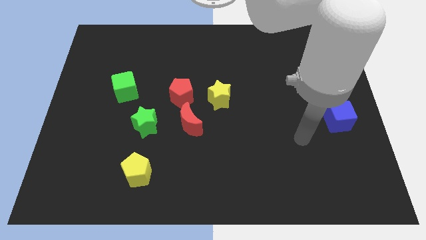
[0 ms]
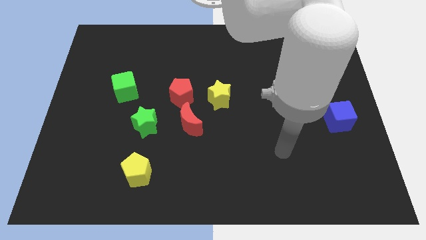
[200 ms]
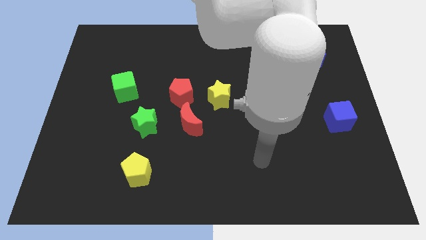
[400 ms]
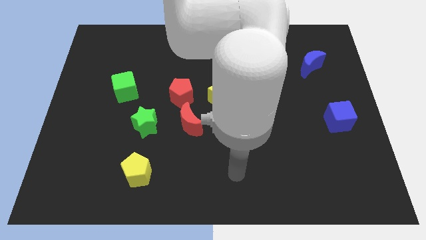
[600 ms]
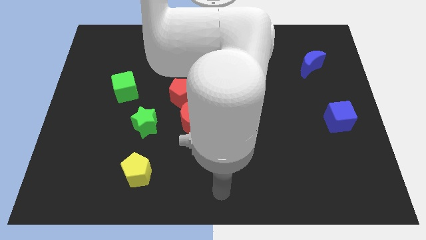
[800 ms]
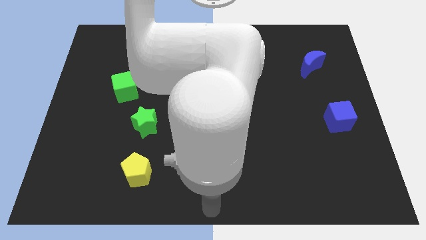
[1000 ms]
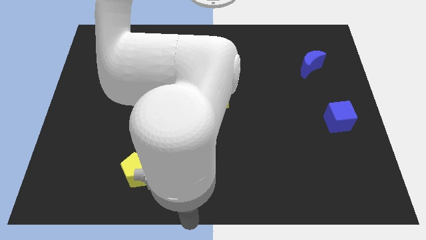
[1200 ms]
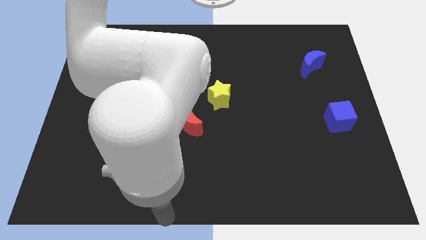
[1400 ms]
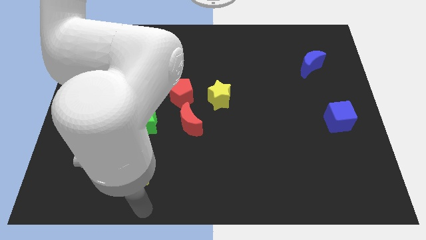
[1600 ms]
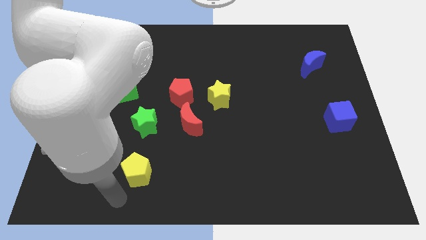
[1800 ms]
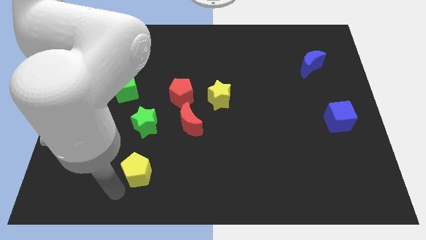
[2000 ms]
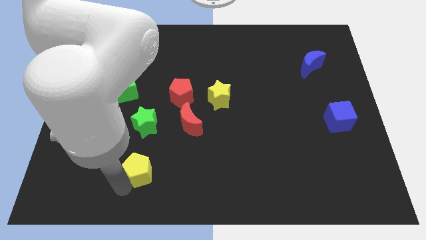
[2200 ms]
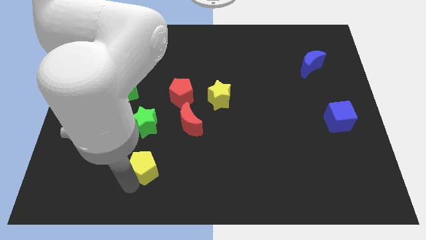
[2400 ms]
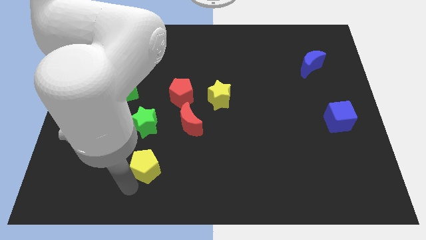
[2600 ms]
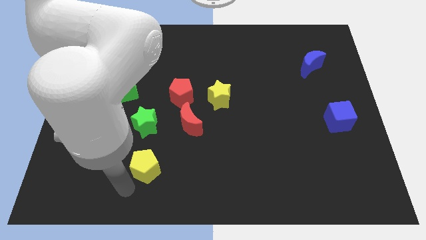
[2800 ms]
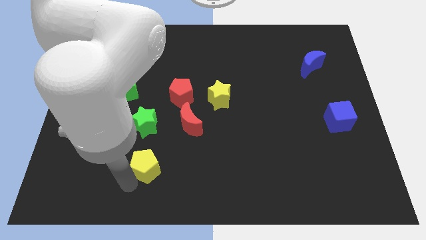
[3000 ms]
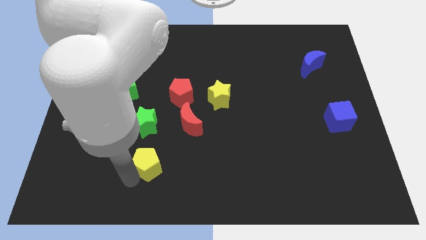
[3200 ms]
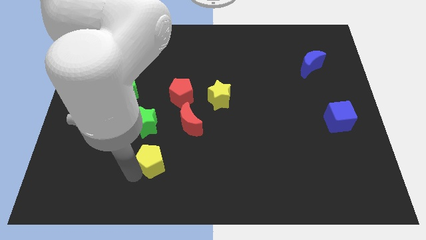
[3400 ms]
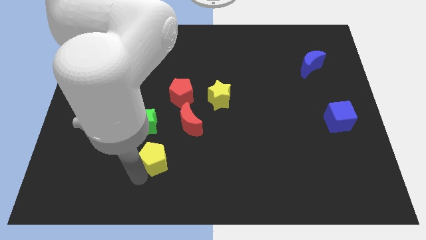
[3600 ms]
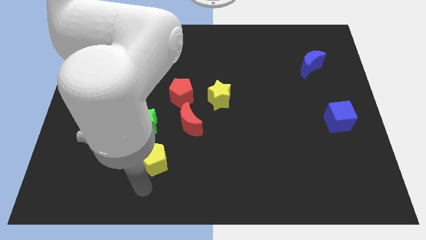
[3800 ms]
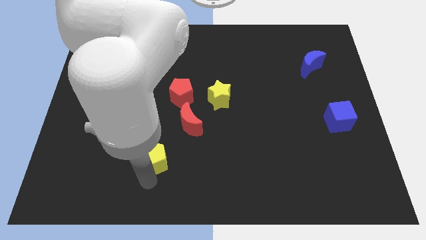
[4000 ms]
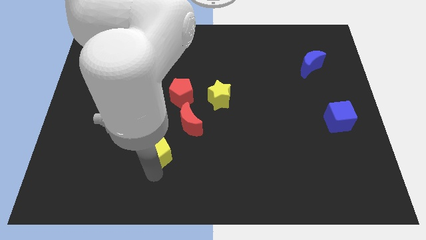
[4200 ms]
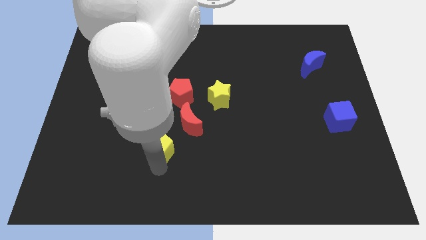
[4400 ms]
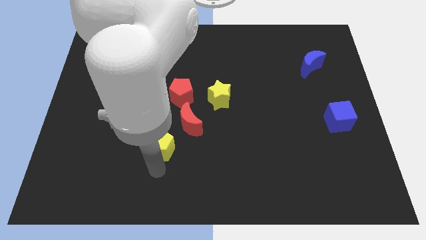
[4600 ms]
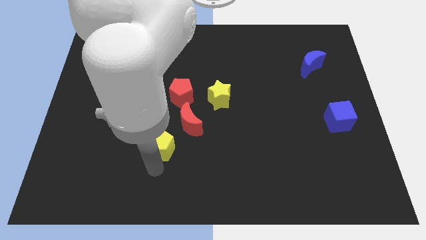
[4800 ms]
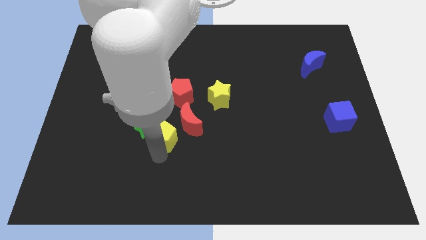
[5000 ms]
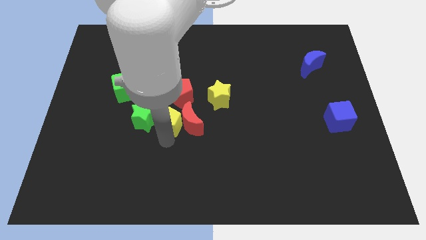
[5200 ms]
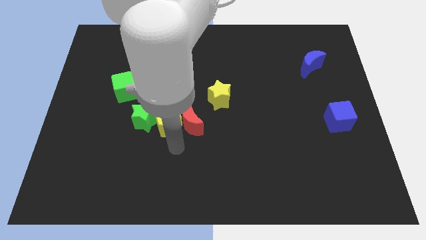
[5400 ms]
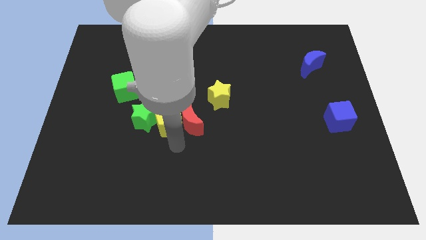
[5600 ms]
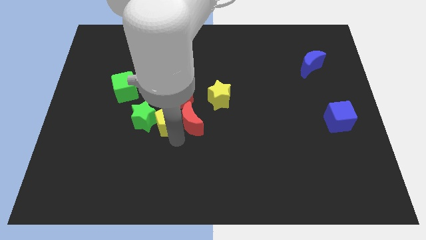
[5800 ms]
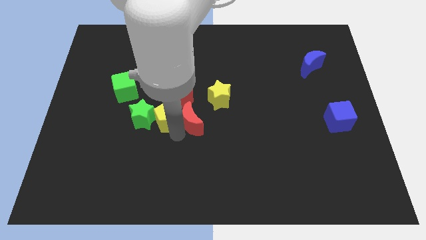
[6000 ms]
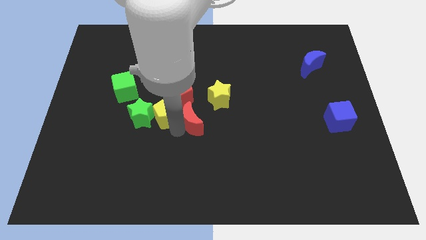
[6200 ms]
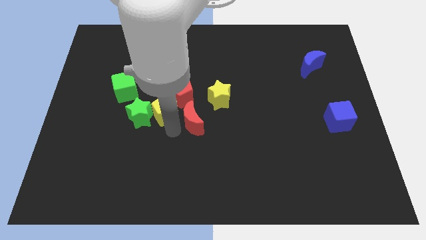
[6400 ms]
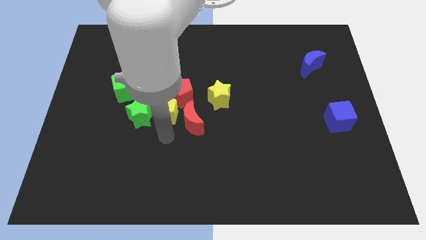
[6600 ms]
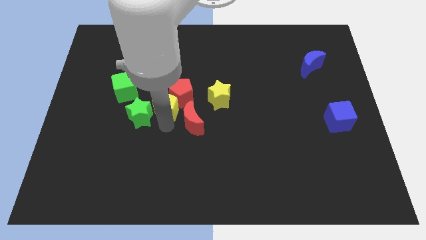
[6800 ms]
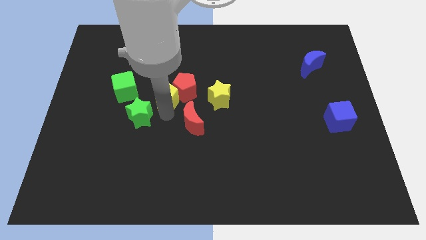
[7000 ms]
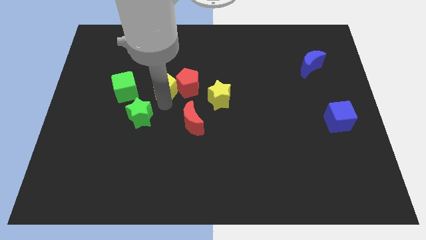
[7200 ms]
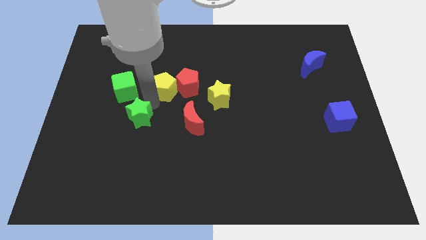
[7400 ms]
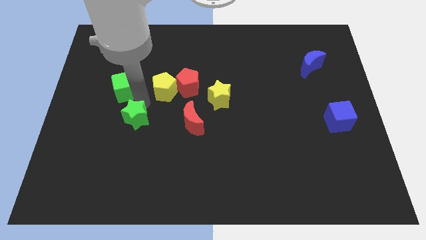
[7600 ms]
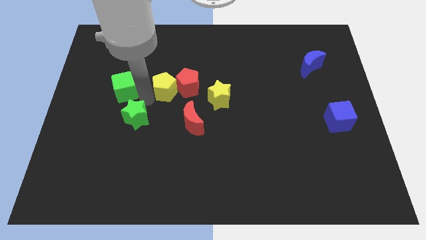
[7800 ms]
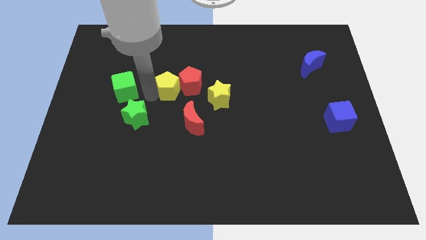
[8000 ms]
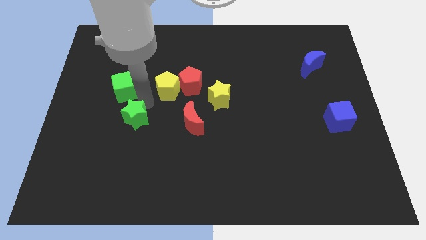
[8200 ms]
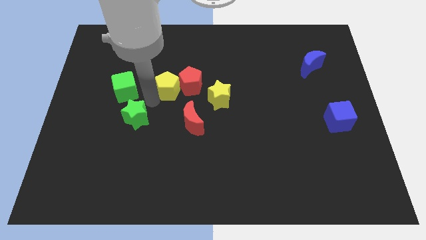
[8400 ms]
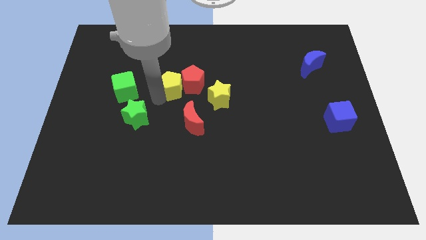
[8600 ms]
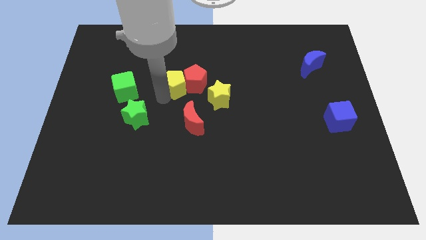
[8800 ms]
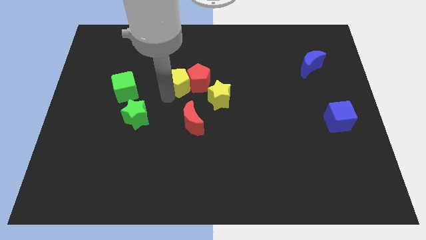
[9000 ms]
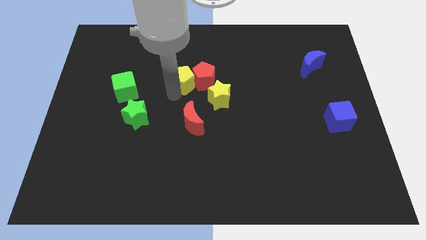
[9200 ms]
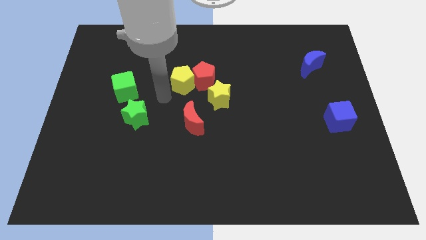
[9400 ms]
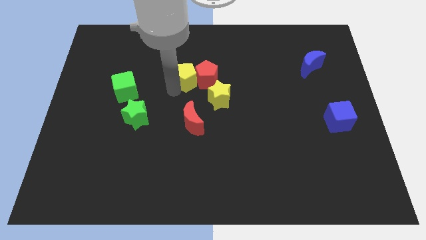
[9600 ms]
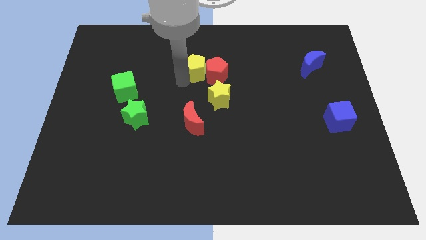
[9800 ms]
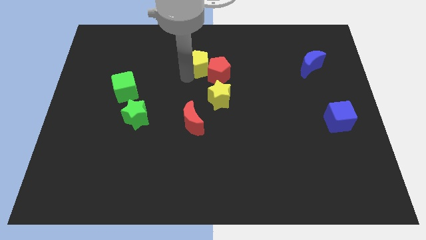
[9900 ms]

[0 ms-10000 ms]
slide the yellow pentagon to the top side of the yellow star
